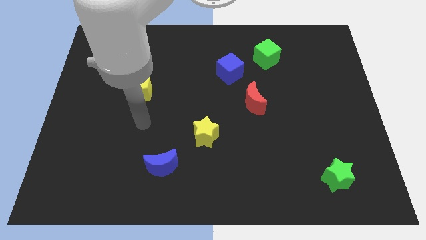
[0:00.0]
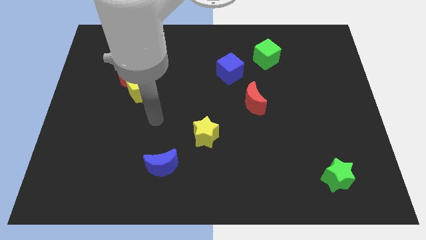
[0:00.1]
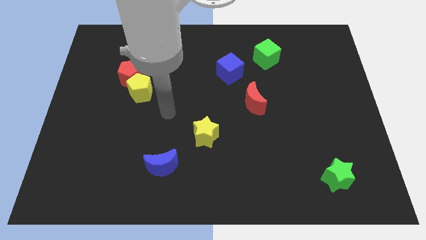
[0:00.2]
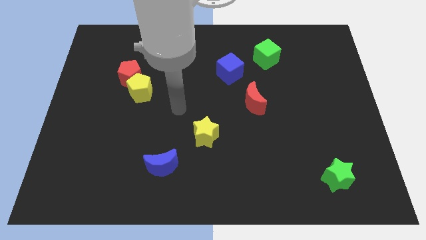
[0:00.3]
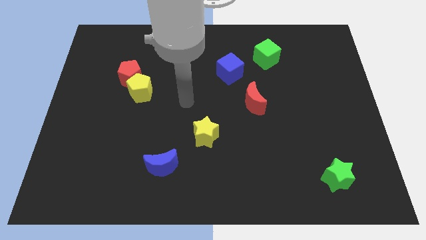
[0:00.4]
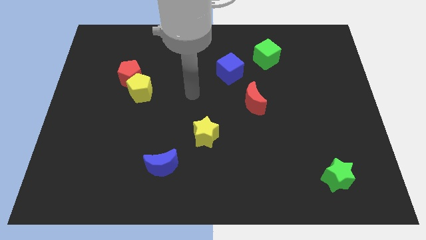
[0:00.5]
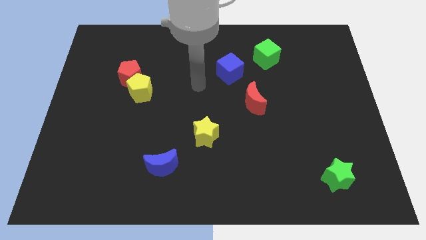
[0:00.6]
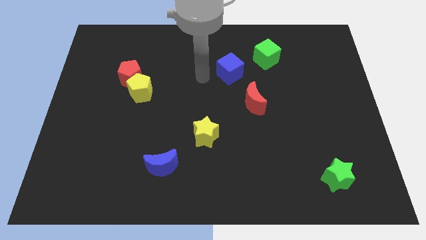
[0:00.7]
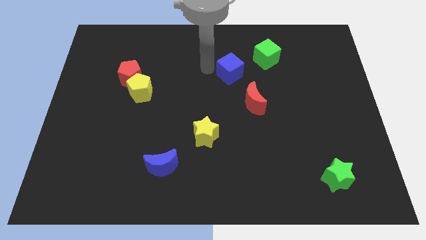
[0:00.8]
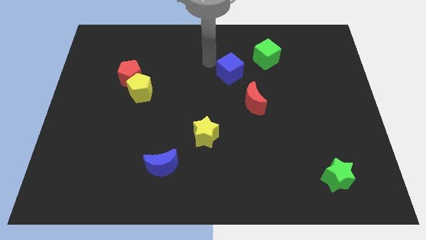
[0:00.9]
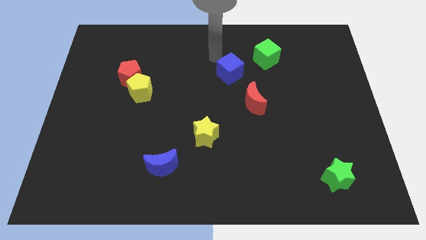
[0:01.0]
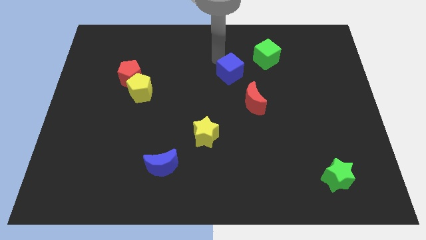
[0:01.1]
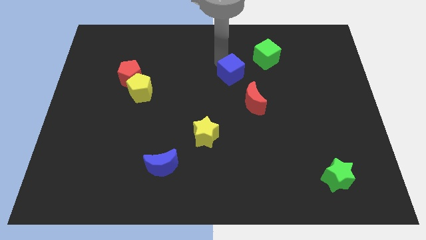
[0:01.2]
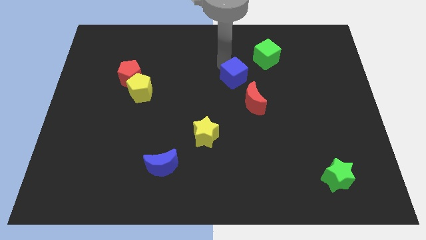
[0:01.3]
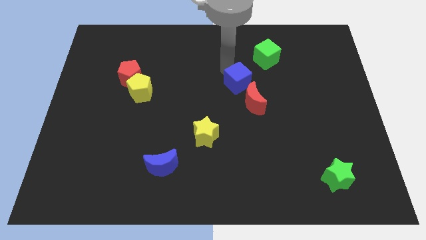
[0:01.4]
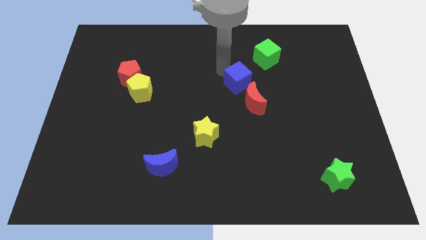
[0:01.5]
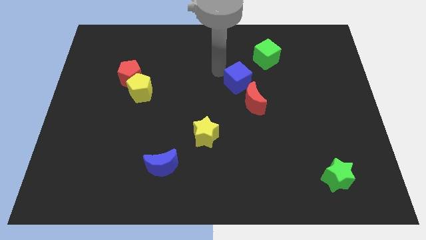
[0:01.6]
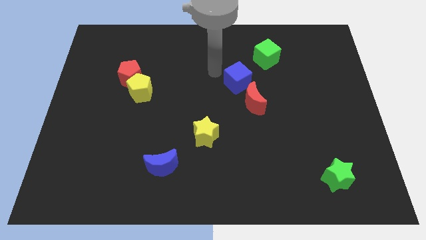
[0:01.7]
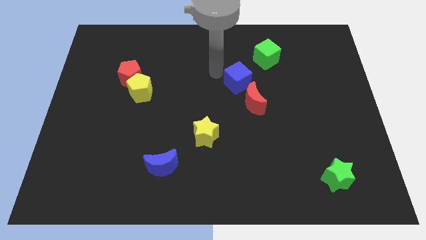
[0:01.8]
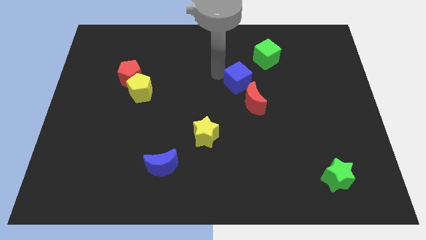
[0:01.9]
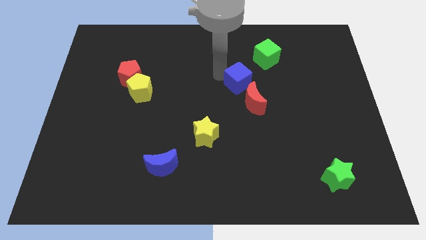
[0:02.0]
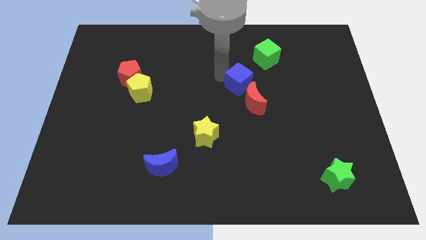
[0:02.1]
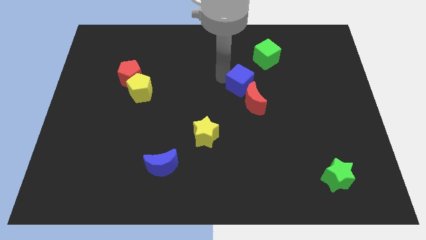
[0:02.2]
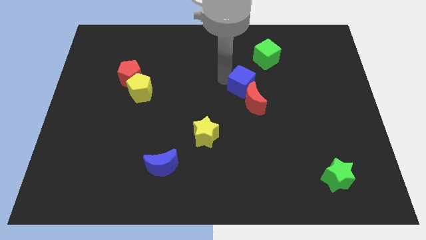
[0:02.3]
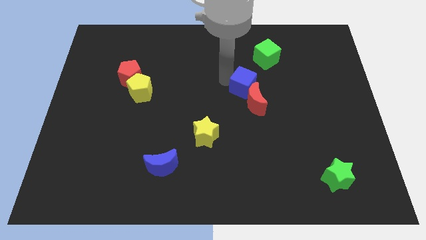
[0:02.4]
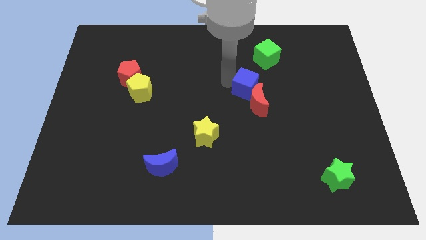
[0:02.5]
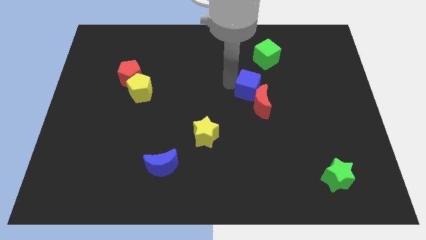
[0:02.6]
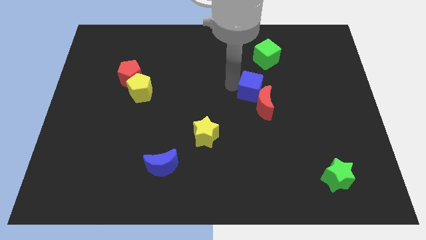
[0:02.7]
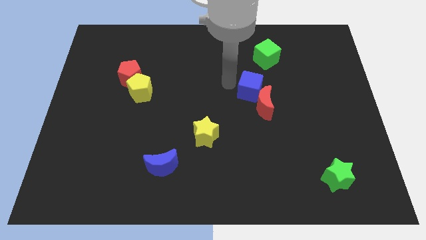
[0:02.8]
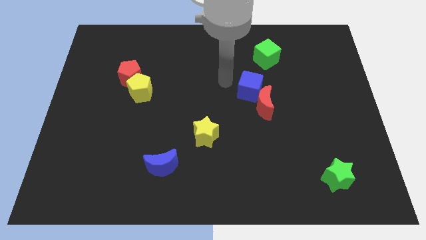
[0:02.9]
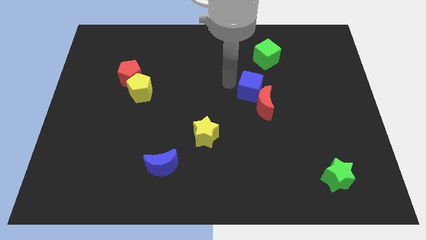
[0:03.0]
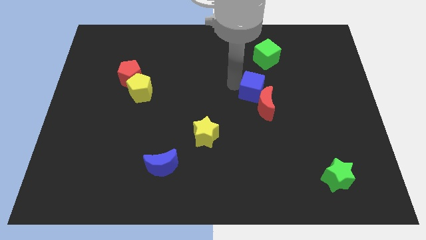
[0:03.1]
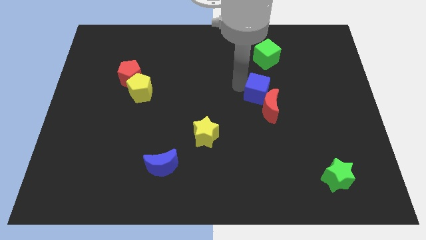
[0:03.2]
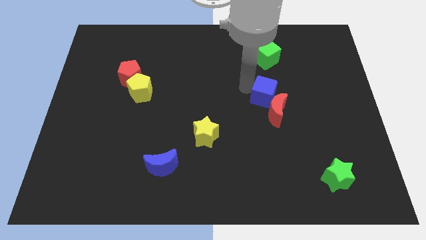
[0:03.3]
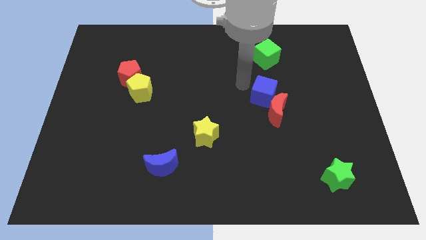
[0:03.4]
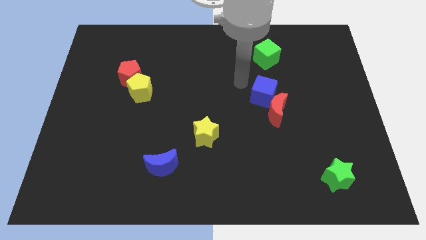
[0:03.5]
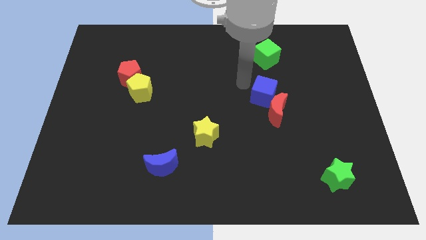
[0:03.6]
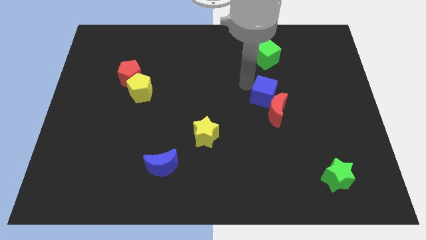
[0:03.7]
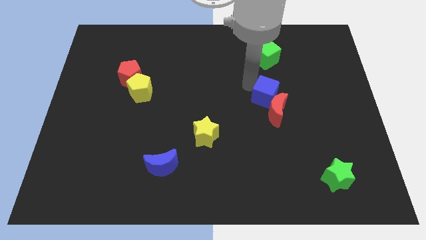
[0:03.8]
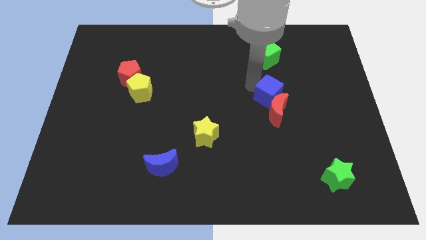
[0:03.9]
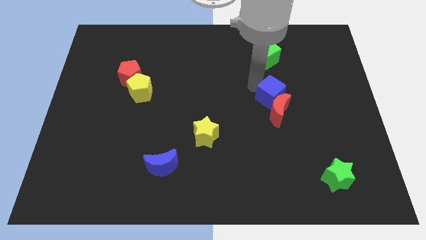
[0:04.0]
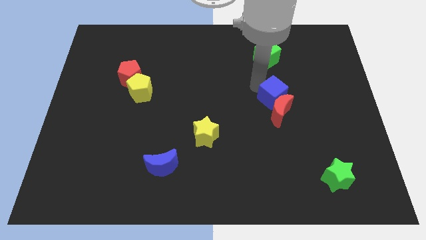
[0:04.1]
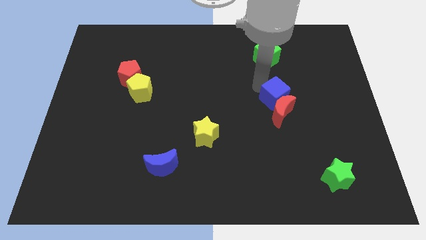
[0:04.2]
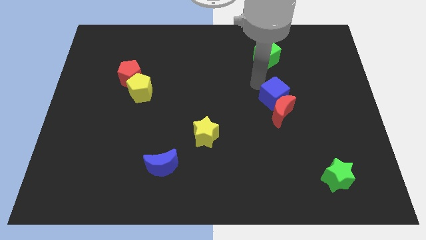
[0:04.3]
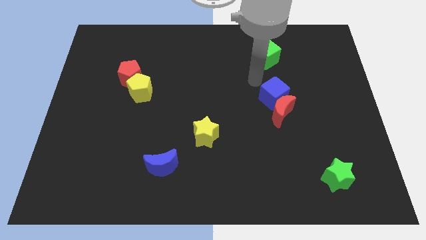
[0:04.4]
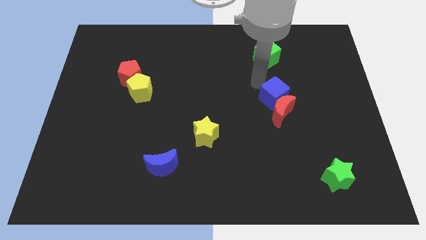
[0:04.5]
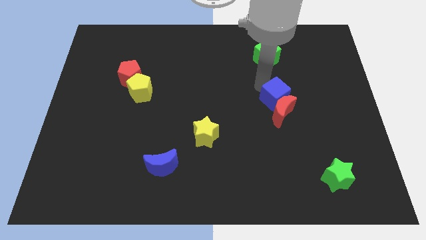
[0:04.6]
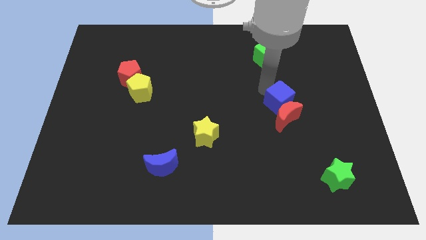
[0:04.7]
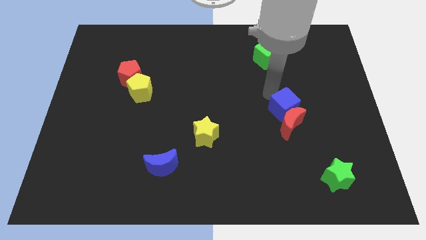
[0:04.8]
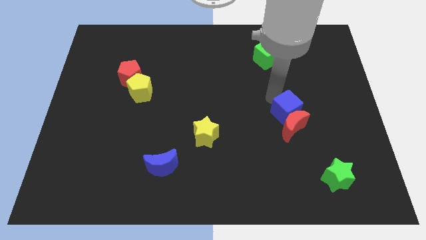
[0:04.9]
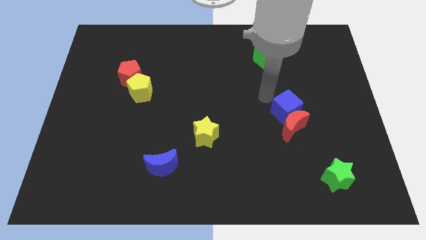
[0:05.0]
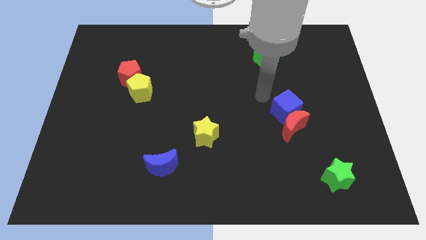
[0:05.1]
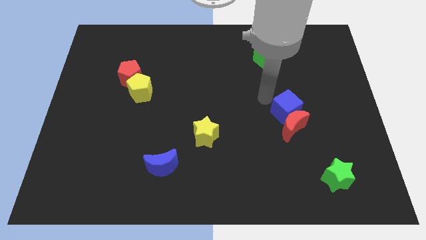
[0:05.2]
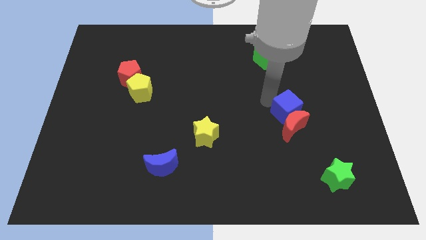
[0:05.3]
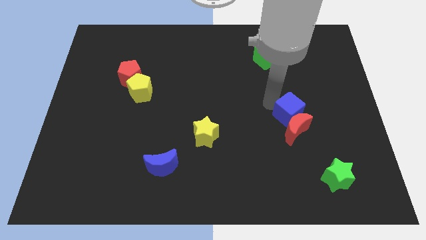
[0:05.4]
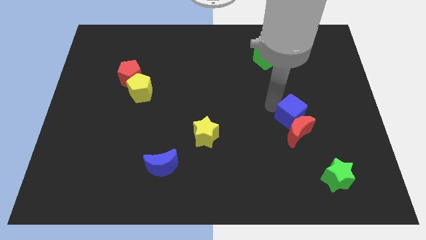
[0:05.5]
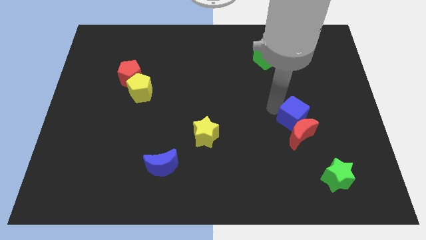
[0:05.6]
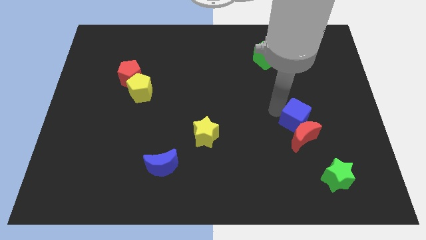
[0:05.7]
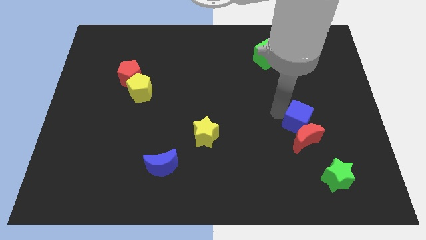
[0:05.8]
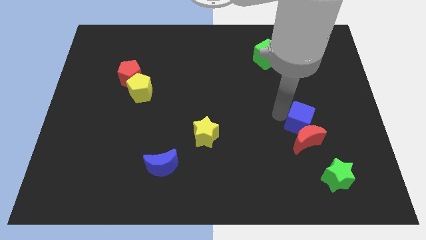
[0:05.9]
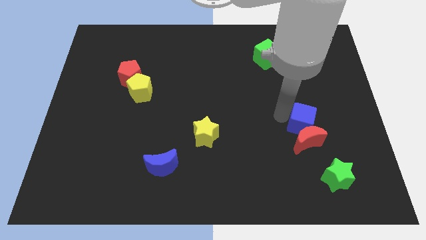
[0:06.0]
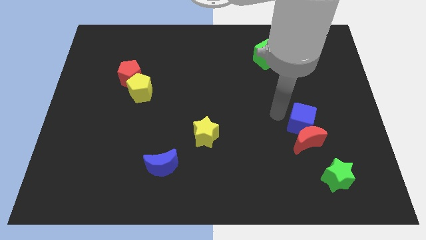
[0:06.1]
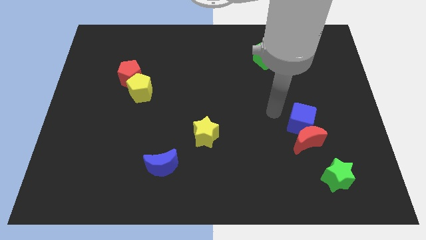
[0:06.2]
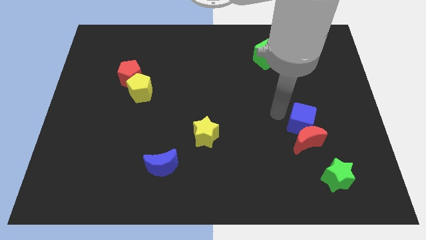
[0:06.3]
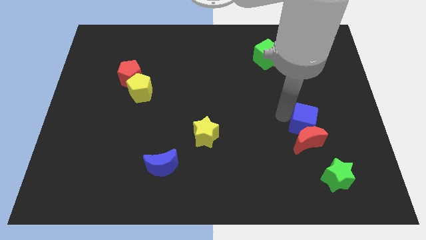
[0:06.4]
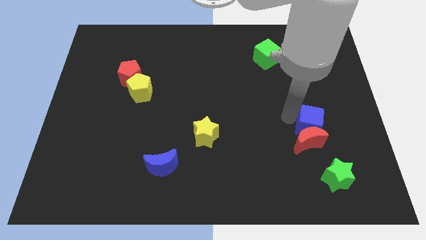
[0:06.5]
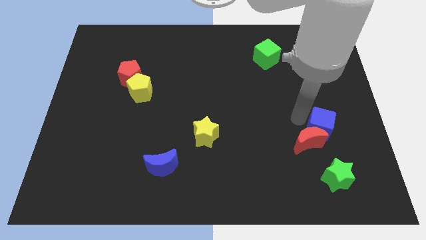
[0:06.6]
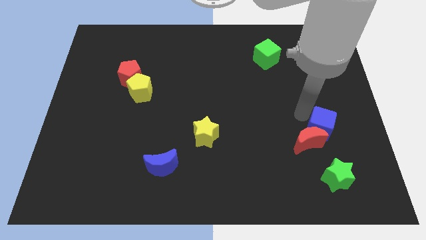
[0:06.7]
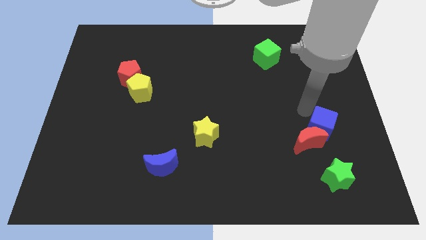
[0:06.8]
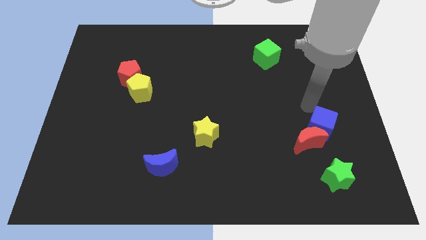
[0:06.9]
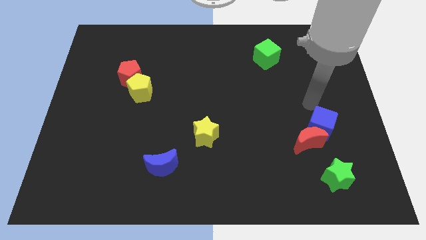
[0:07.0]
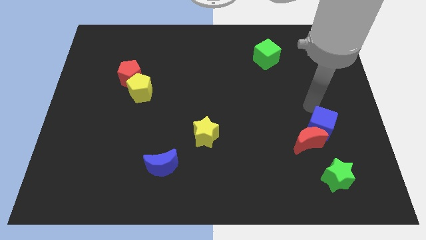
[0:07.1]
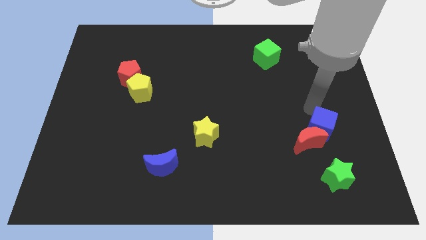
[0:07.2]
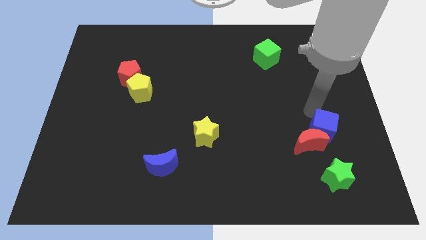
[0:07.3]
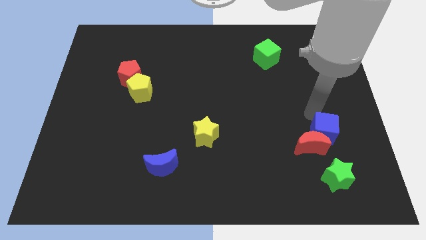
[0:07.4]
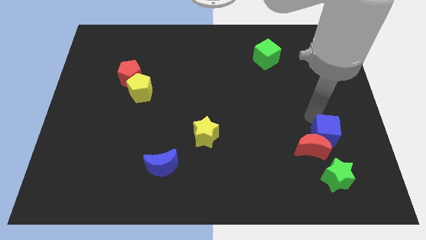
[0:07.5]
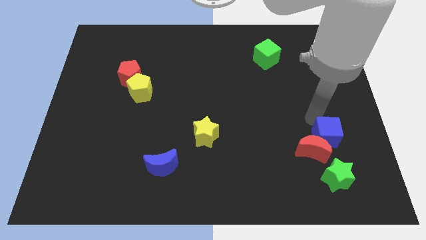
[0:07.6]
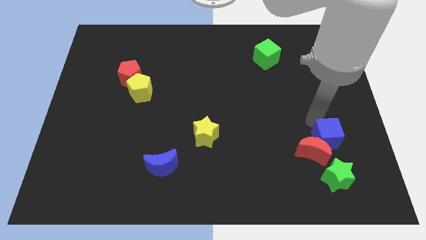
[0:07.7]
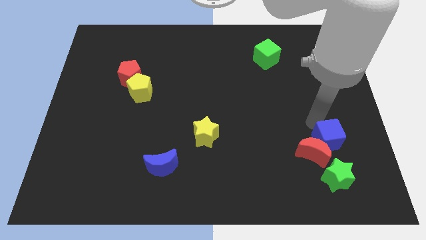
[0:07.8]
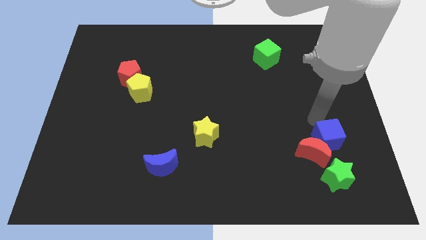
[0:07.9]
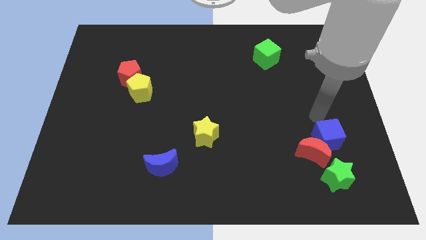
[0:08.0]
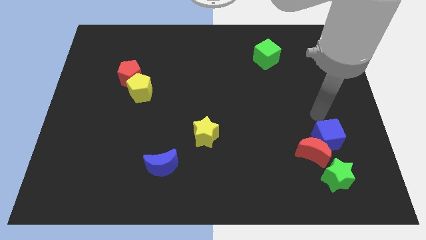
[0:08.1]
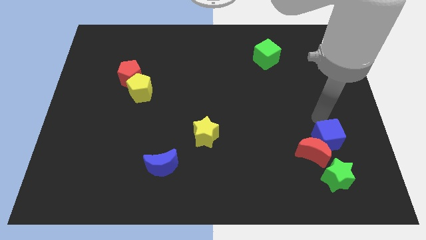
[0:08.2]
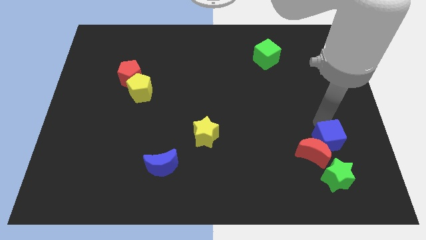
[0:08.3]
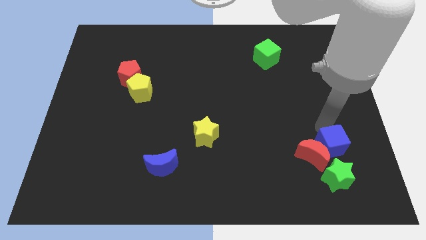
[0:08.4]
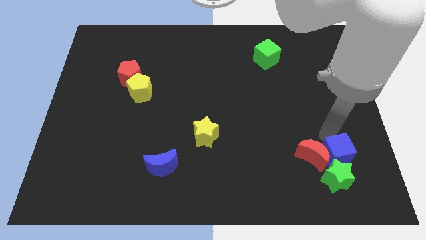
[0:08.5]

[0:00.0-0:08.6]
put the blue cube towards the green star
